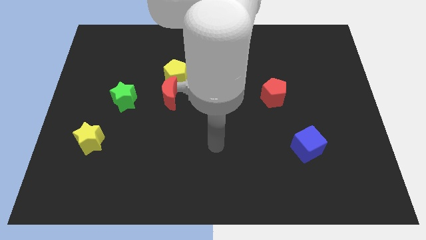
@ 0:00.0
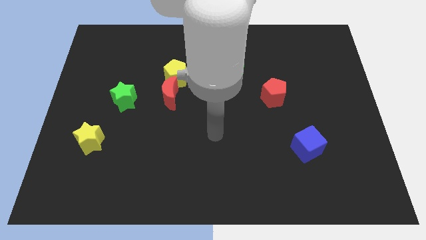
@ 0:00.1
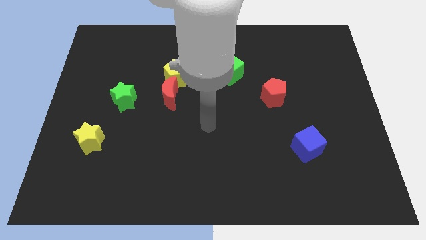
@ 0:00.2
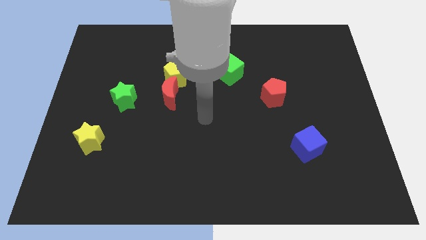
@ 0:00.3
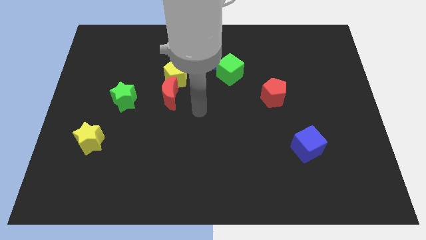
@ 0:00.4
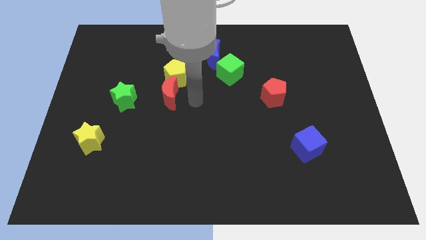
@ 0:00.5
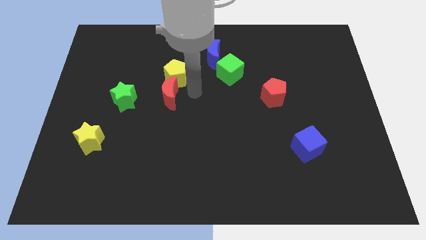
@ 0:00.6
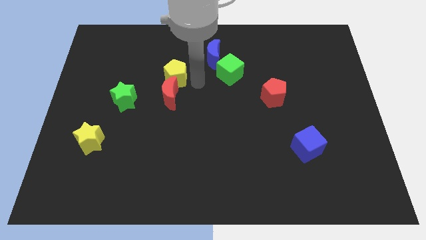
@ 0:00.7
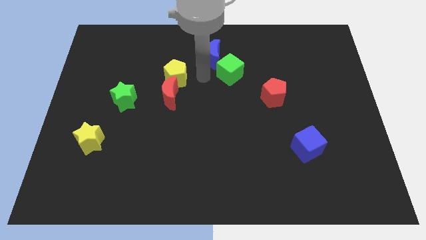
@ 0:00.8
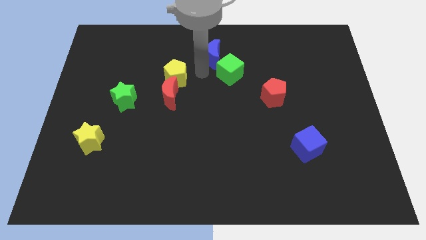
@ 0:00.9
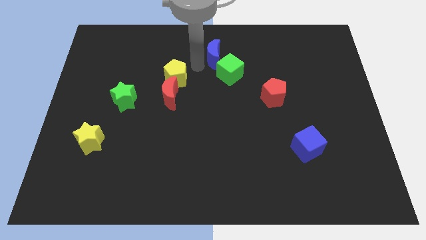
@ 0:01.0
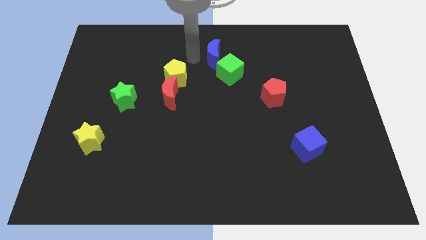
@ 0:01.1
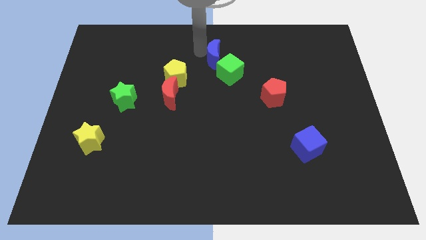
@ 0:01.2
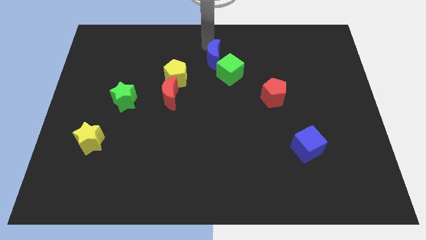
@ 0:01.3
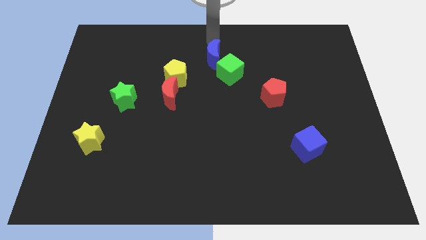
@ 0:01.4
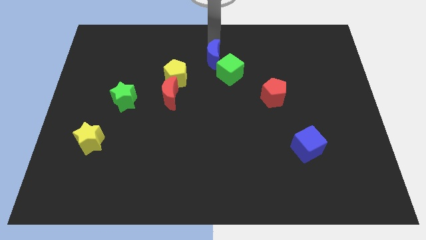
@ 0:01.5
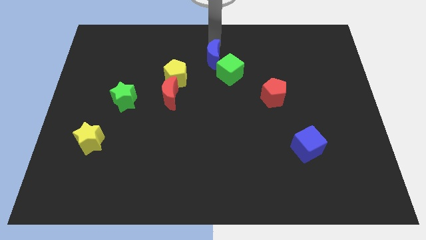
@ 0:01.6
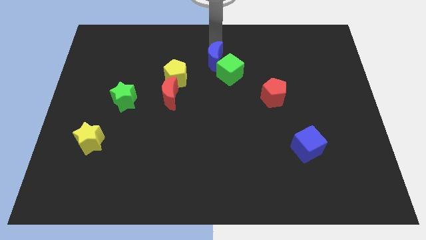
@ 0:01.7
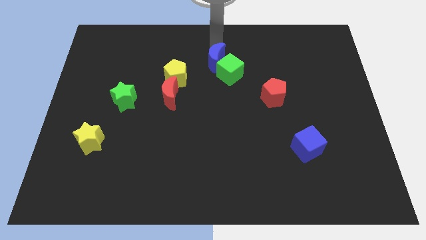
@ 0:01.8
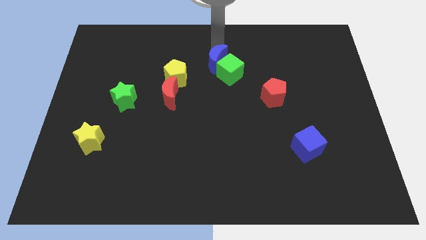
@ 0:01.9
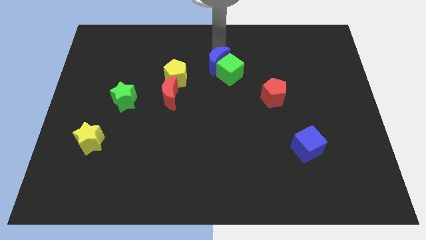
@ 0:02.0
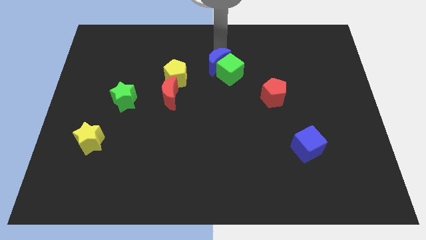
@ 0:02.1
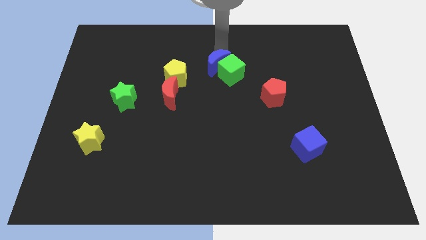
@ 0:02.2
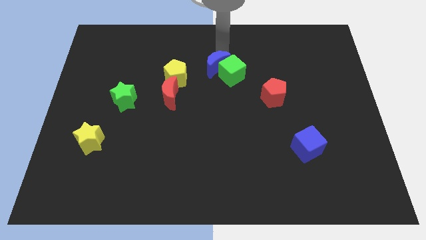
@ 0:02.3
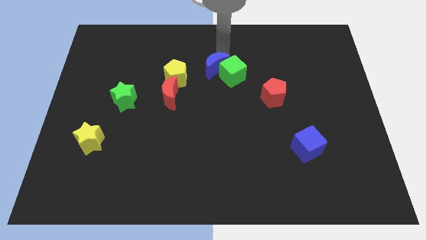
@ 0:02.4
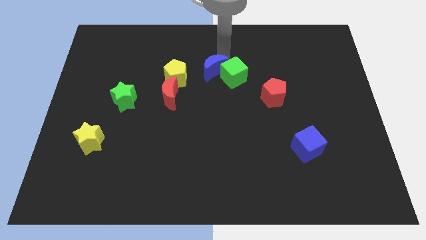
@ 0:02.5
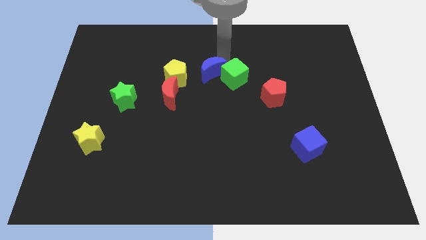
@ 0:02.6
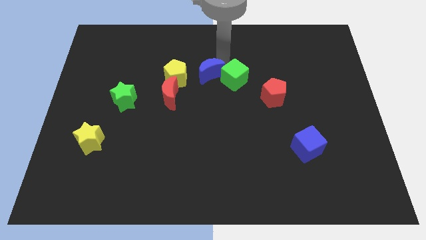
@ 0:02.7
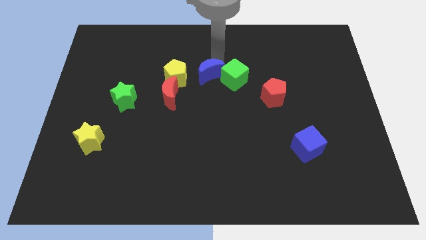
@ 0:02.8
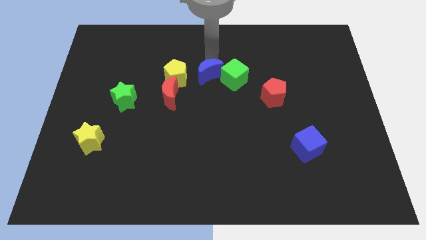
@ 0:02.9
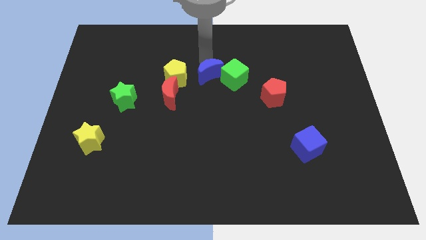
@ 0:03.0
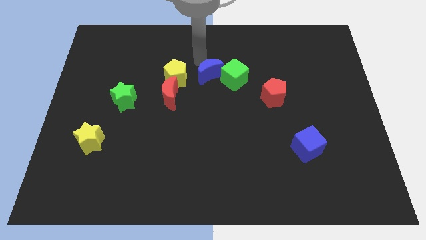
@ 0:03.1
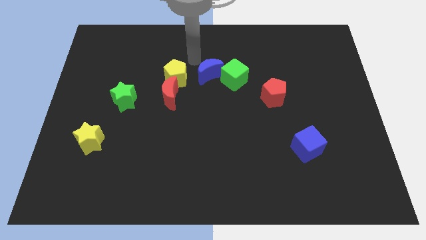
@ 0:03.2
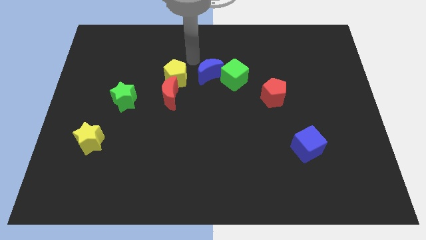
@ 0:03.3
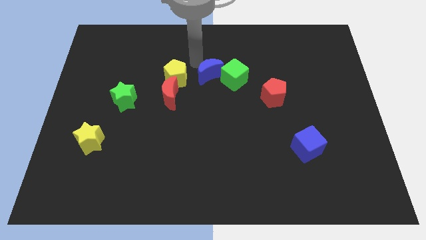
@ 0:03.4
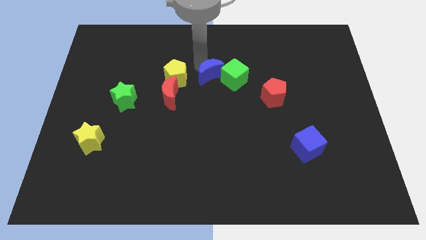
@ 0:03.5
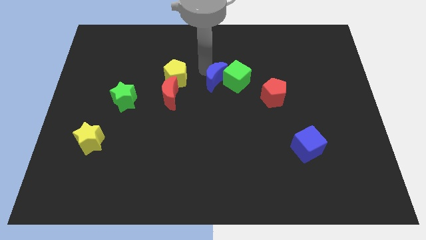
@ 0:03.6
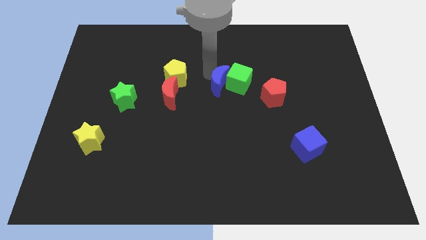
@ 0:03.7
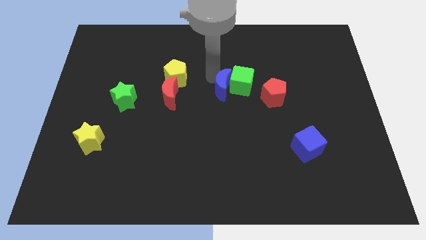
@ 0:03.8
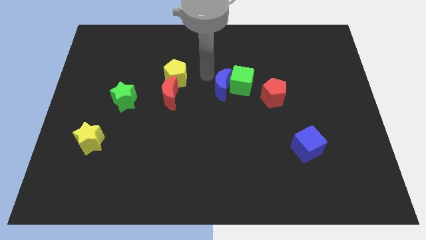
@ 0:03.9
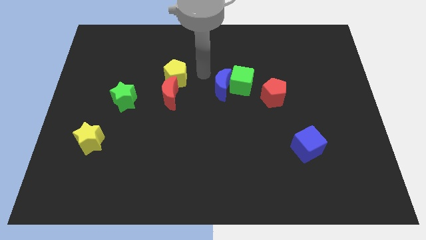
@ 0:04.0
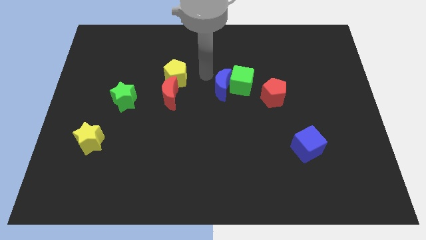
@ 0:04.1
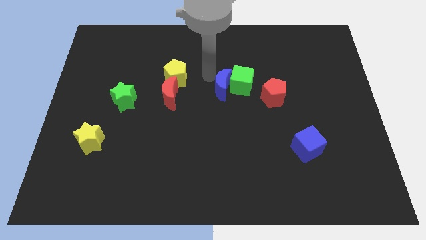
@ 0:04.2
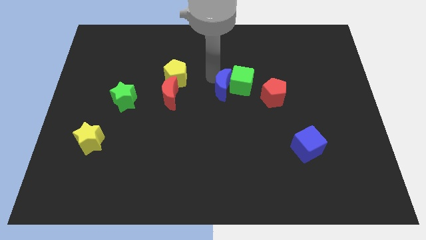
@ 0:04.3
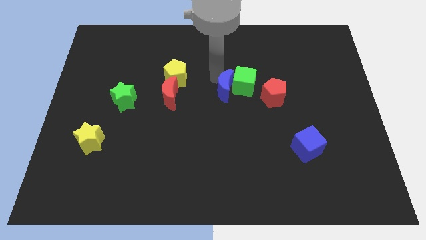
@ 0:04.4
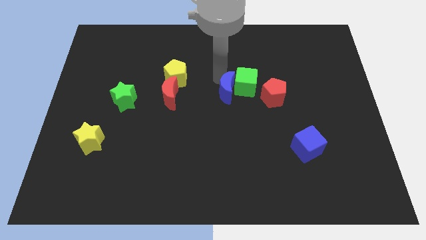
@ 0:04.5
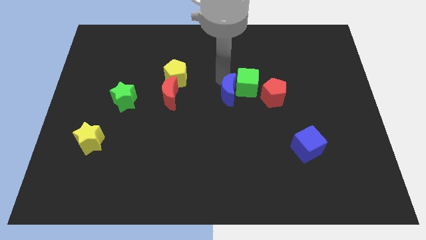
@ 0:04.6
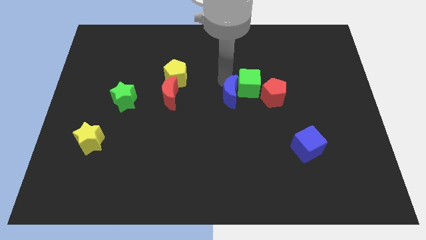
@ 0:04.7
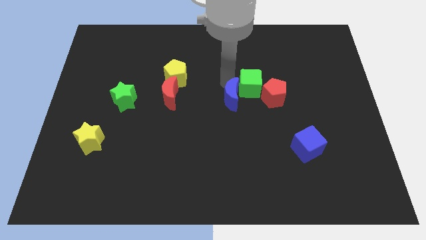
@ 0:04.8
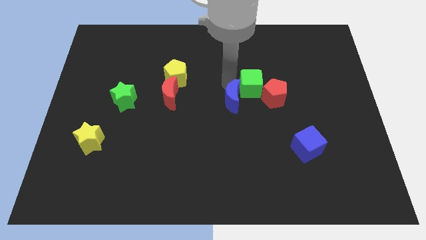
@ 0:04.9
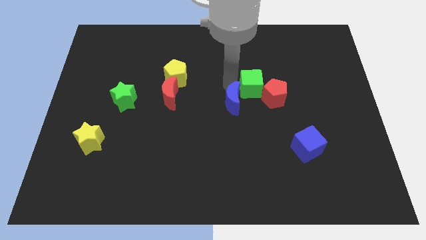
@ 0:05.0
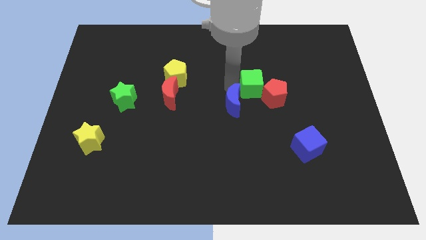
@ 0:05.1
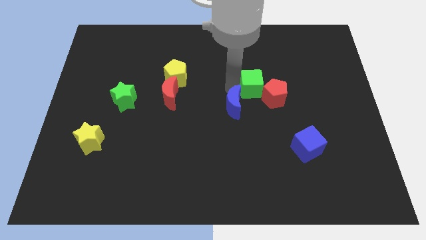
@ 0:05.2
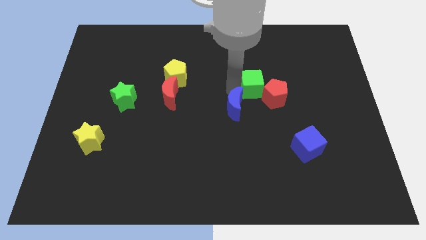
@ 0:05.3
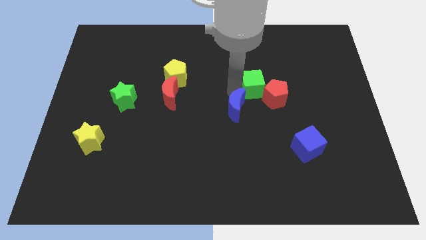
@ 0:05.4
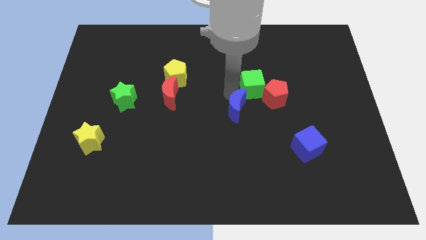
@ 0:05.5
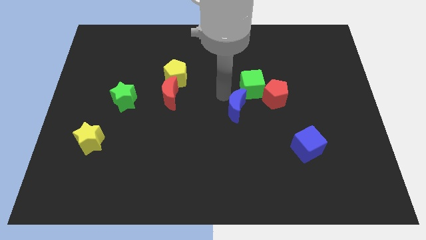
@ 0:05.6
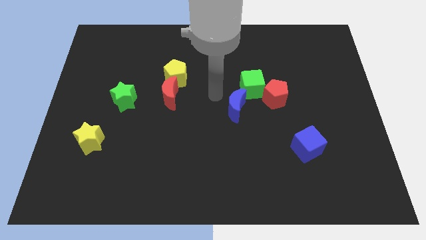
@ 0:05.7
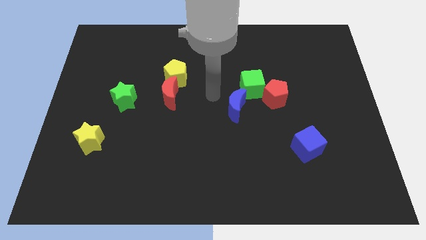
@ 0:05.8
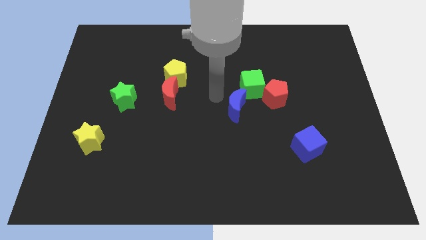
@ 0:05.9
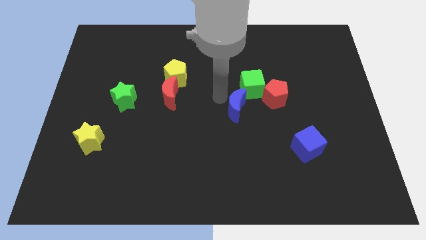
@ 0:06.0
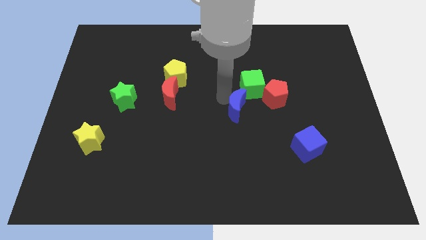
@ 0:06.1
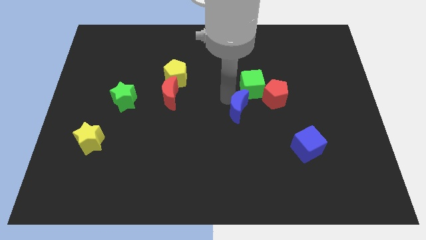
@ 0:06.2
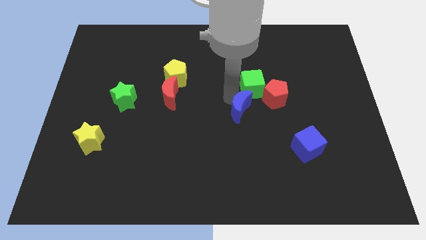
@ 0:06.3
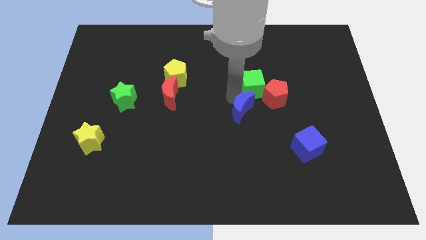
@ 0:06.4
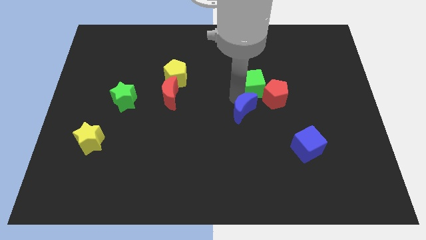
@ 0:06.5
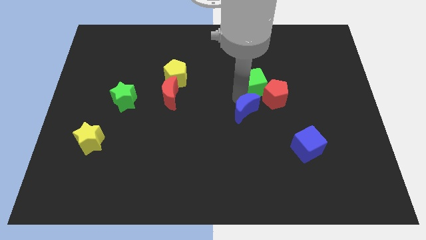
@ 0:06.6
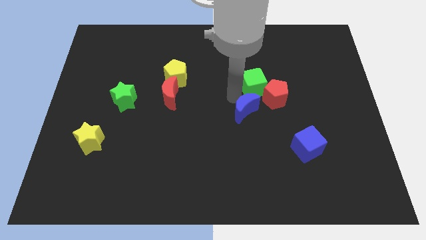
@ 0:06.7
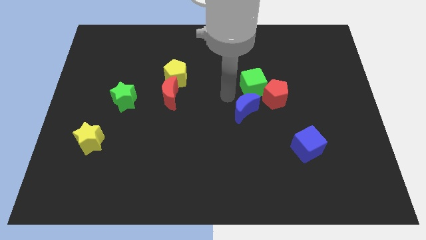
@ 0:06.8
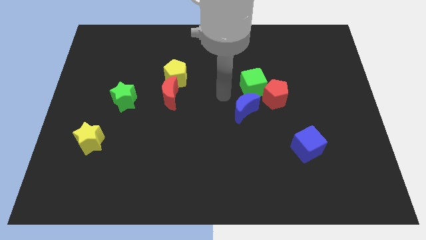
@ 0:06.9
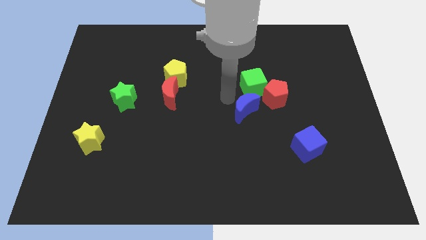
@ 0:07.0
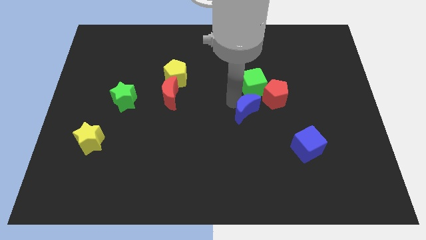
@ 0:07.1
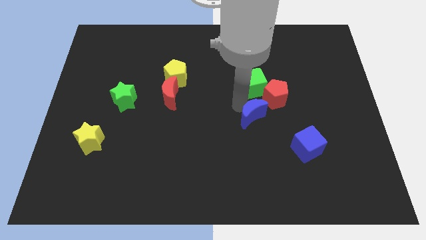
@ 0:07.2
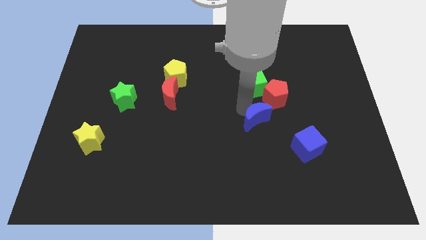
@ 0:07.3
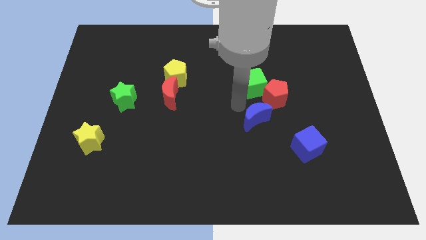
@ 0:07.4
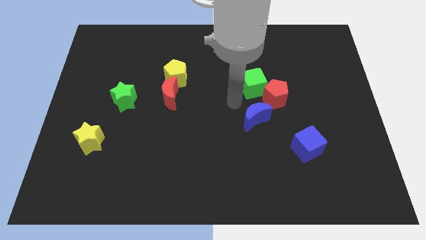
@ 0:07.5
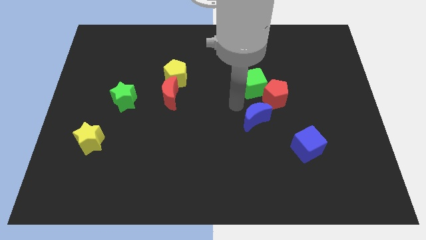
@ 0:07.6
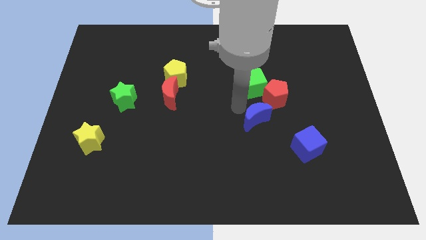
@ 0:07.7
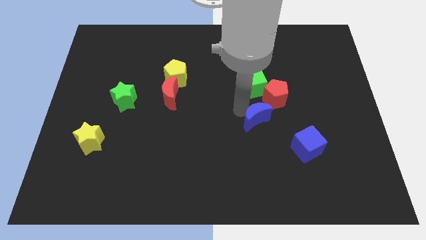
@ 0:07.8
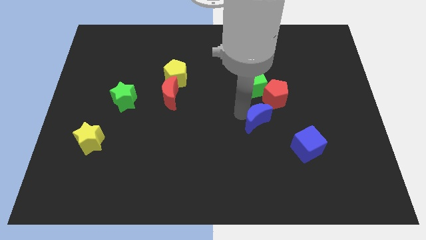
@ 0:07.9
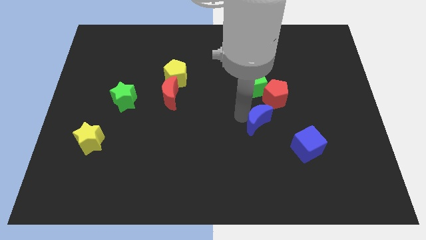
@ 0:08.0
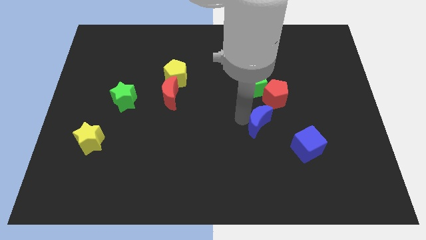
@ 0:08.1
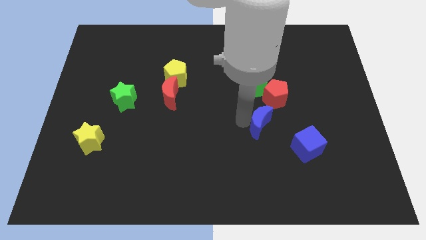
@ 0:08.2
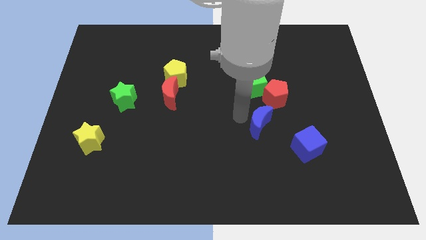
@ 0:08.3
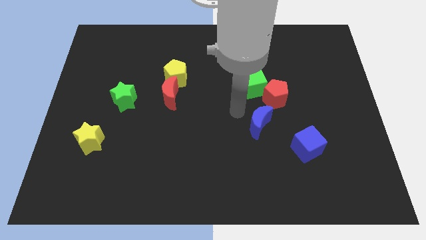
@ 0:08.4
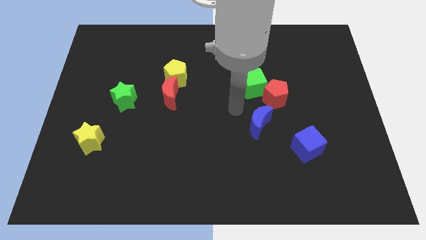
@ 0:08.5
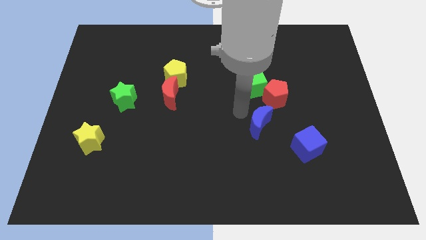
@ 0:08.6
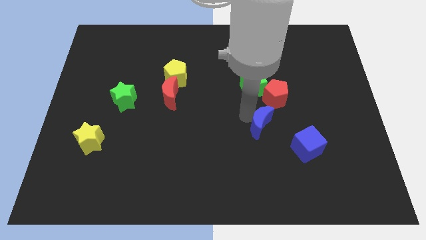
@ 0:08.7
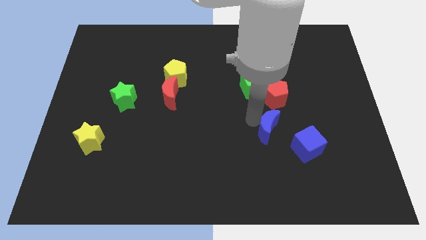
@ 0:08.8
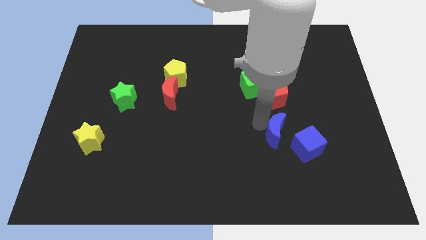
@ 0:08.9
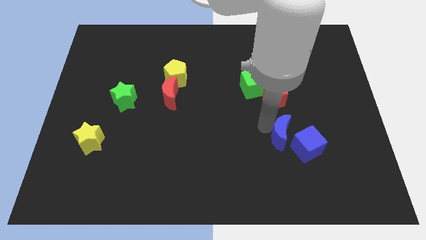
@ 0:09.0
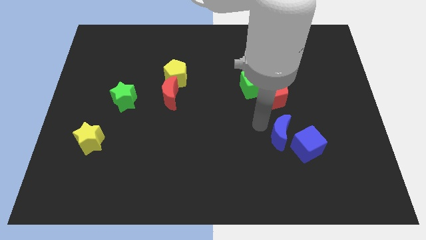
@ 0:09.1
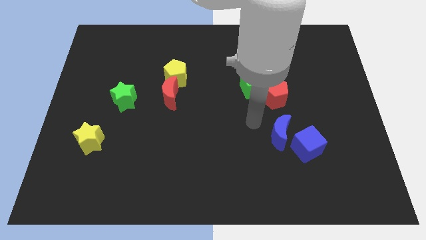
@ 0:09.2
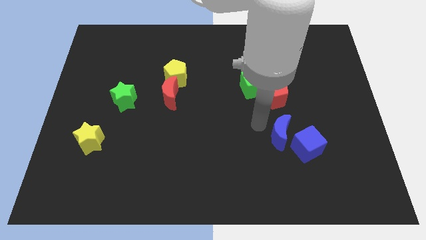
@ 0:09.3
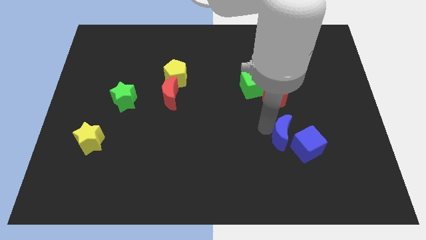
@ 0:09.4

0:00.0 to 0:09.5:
push the blue moon close to the blue cube
